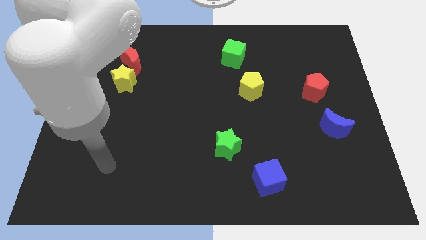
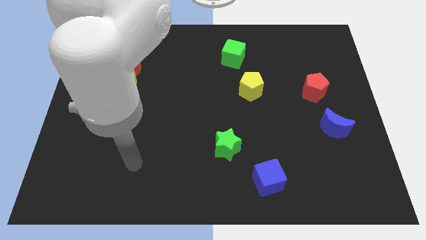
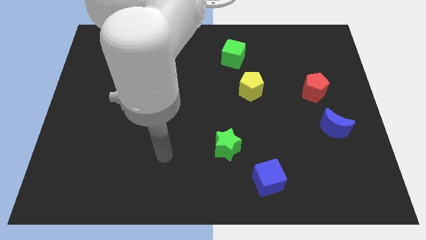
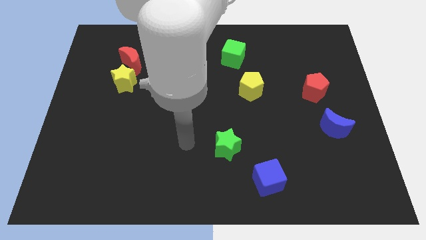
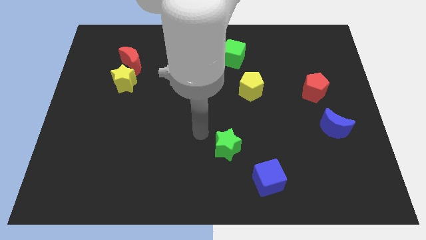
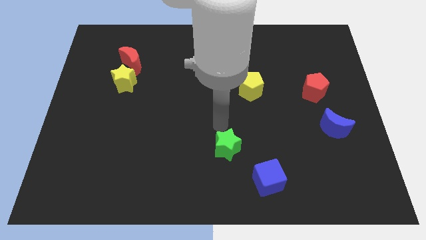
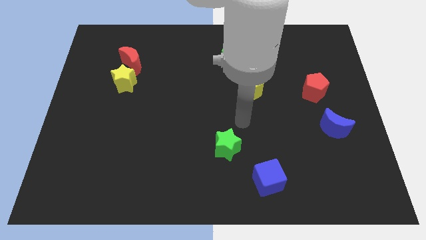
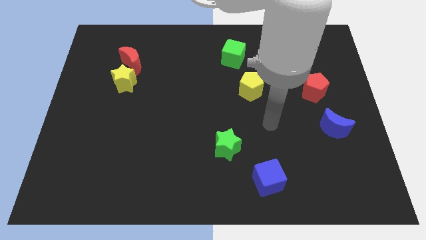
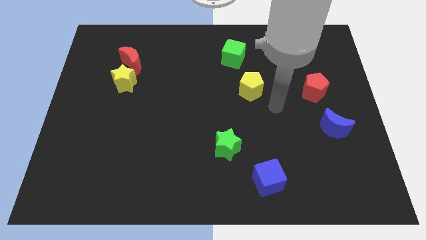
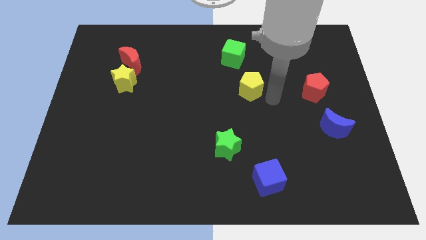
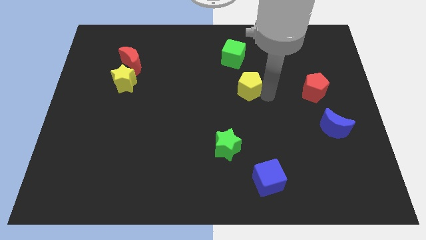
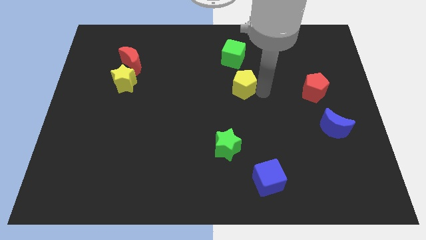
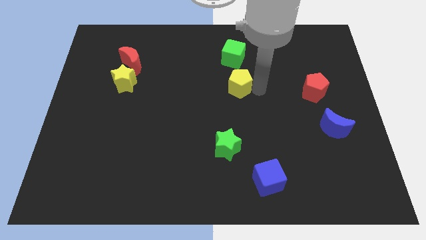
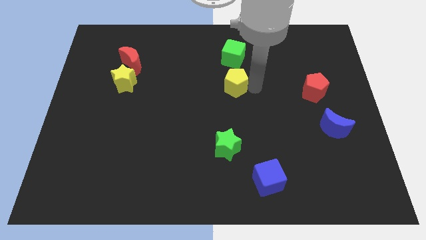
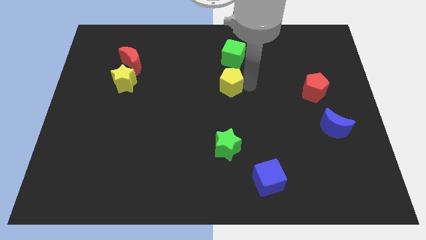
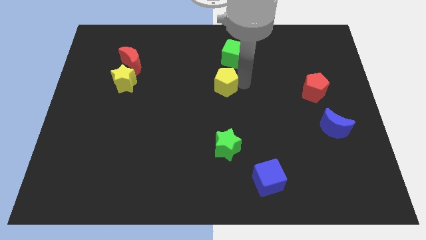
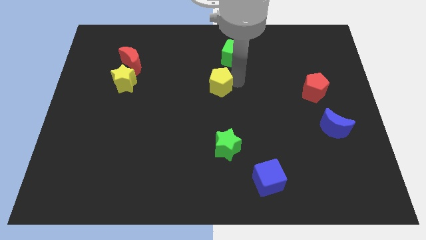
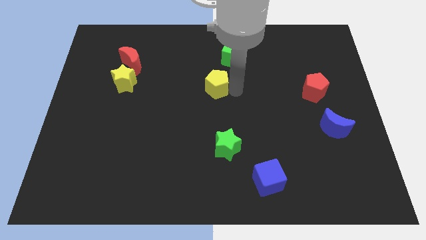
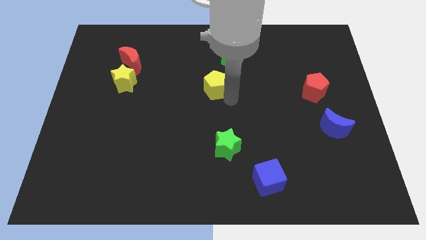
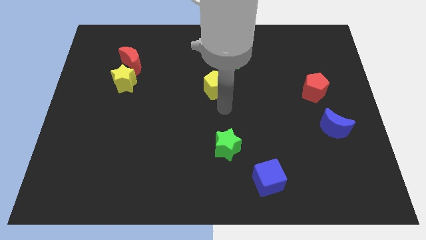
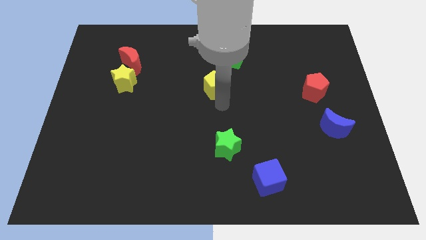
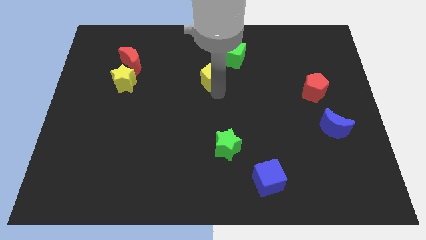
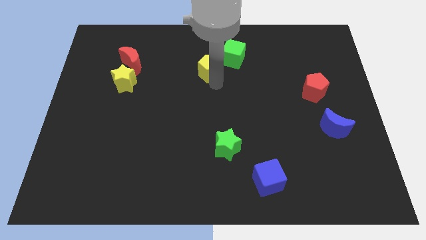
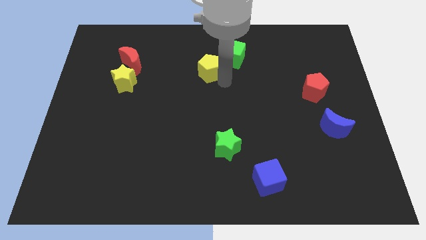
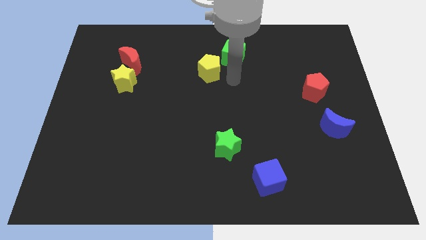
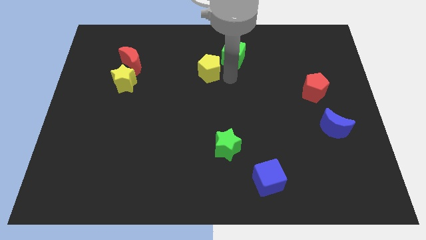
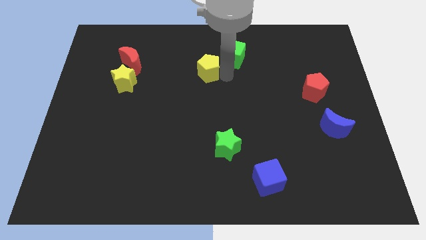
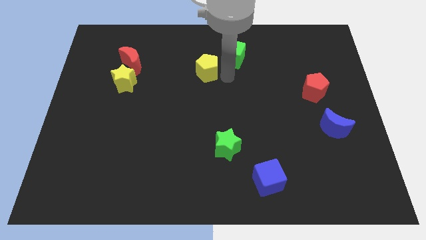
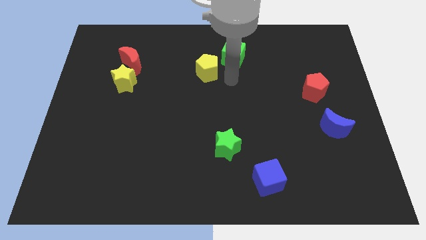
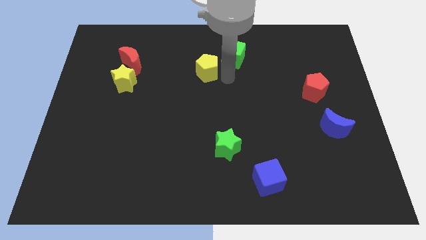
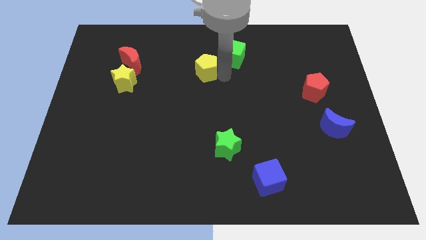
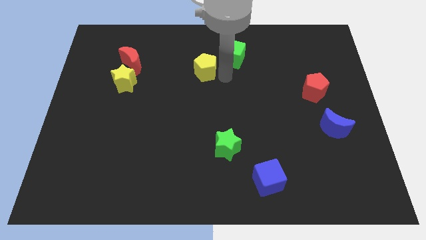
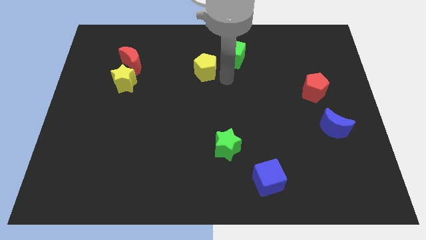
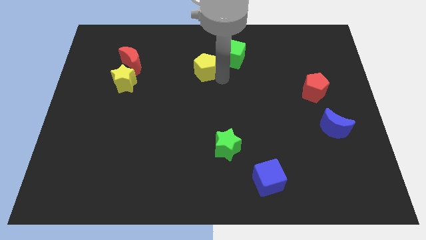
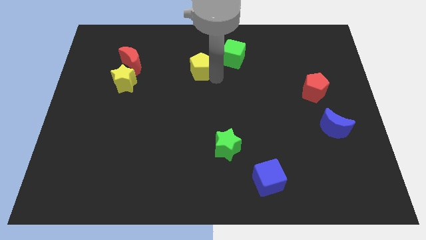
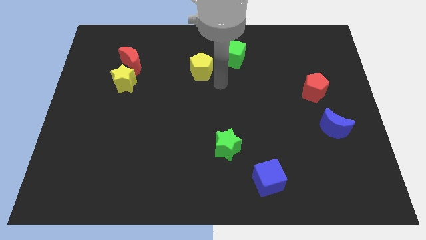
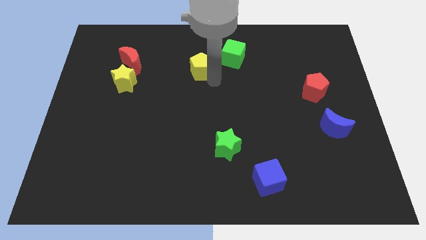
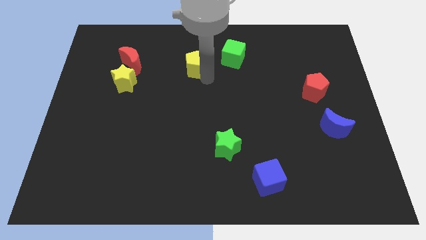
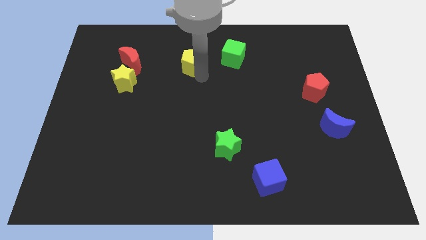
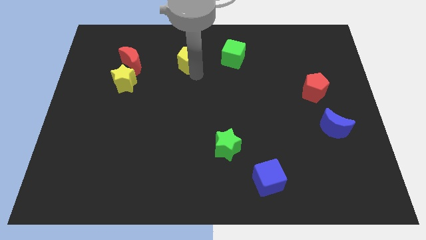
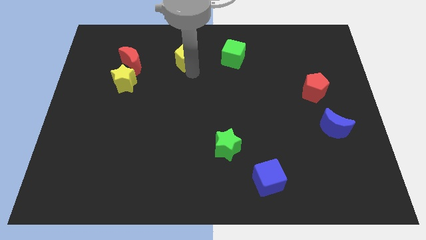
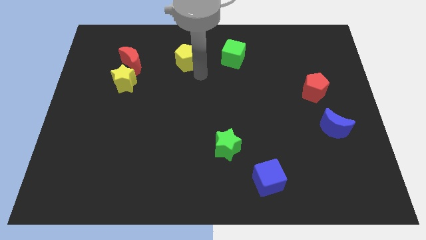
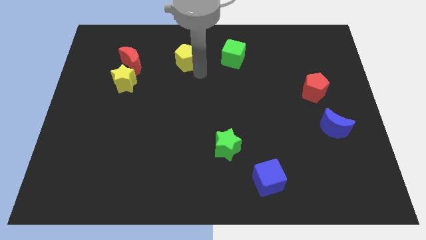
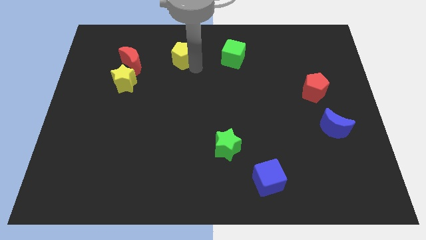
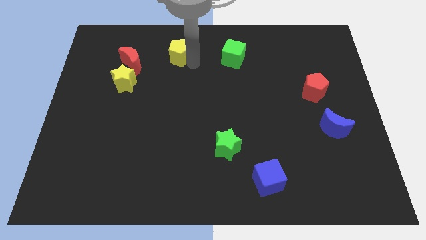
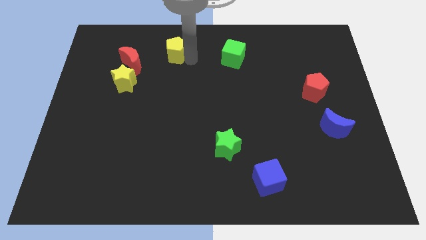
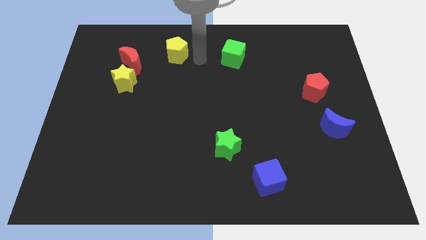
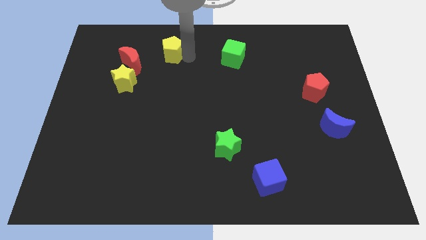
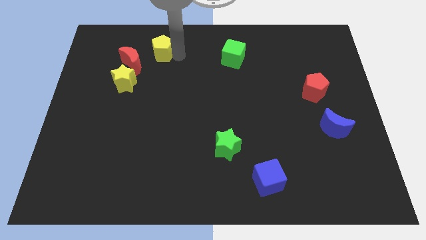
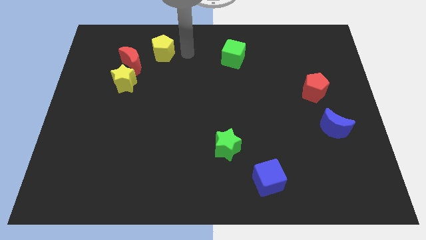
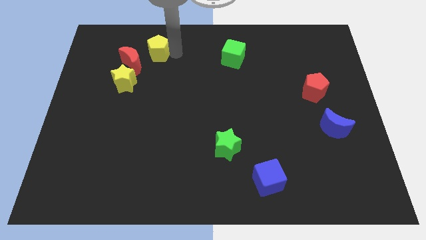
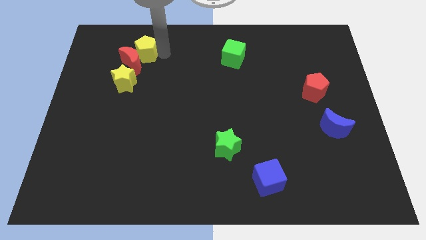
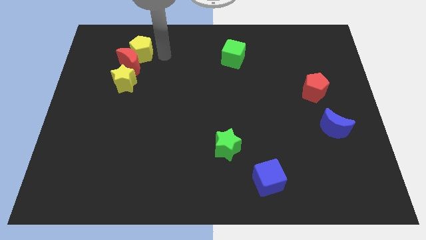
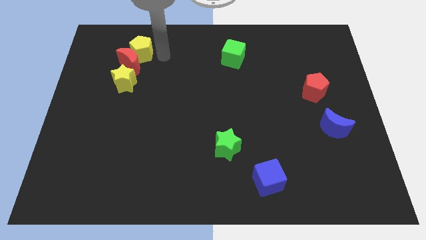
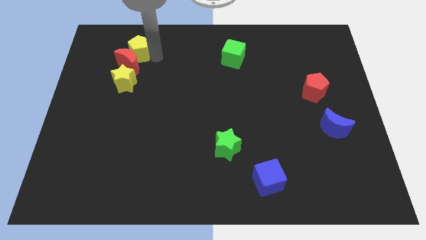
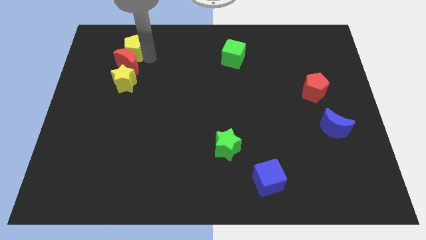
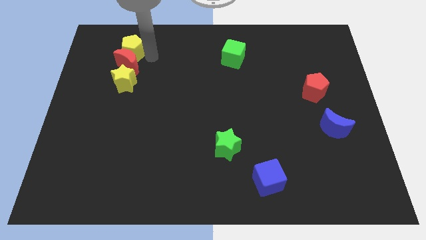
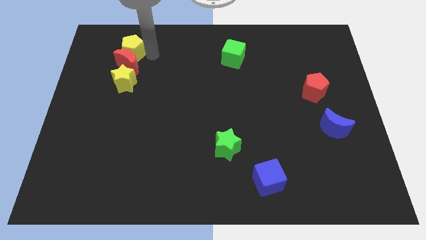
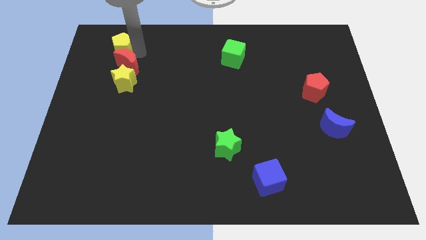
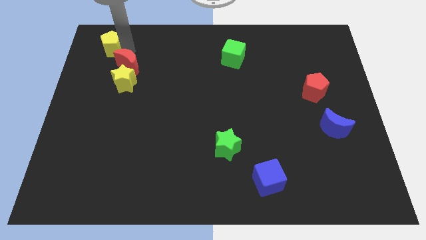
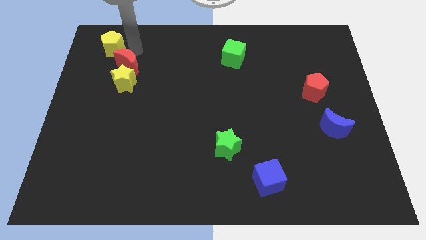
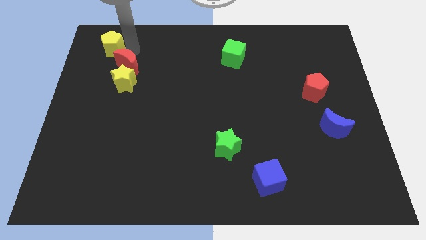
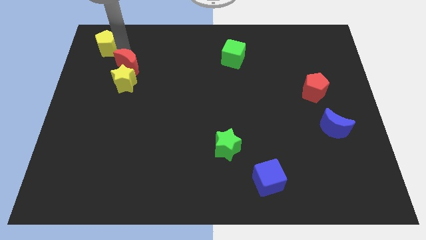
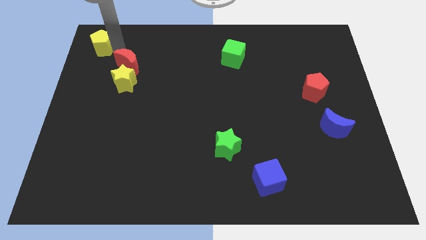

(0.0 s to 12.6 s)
slide the yellow pentagon to the top left
